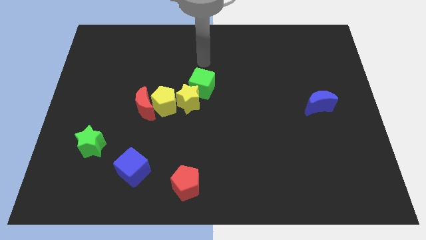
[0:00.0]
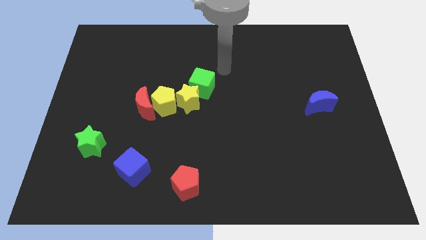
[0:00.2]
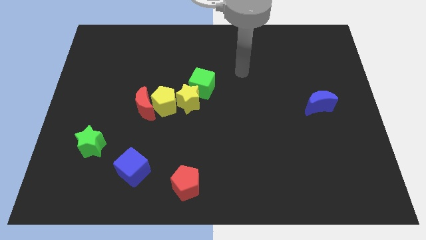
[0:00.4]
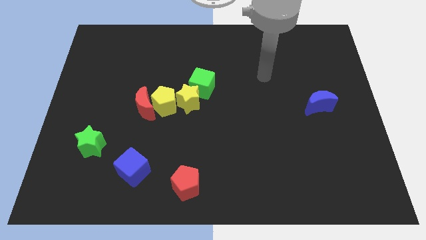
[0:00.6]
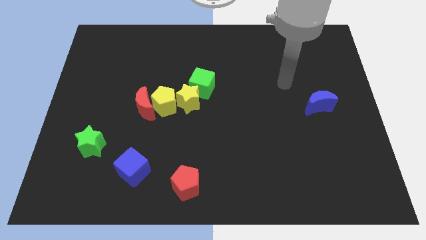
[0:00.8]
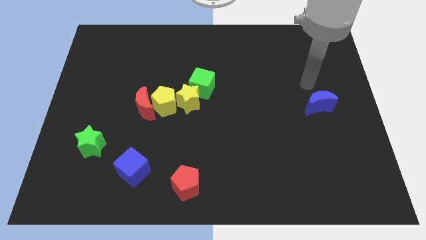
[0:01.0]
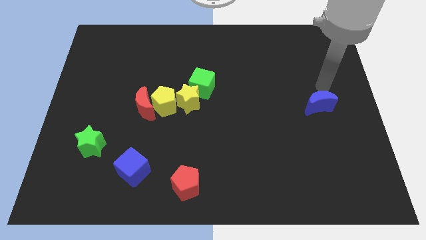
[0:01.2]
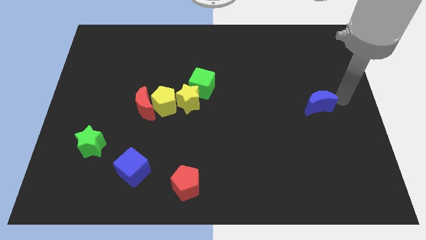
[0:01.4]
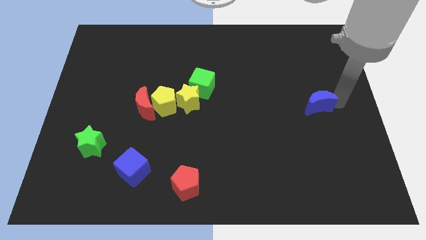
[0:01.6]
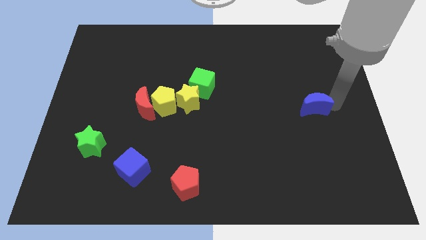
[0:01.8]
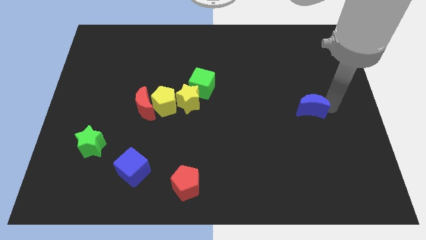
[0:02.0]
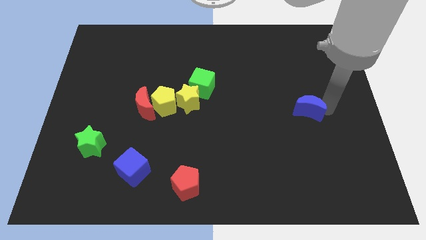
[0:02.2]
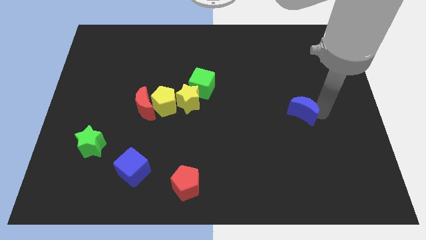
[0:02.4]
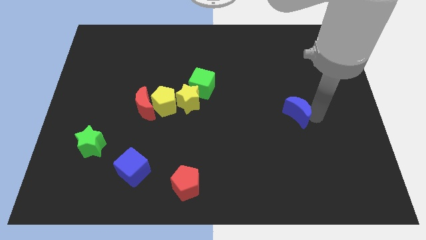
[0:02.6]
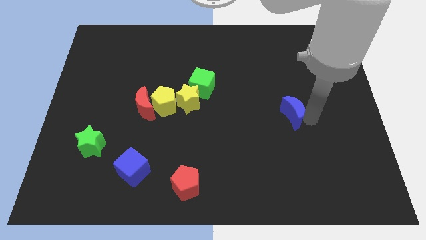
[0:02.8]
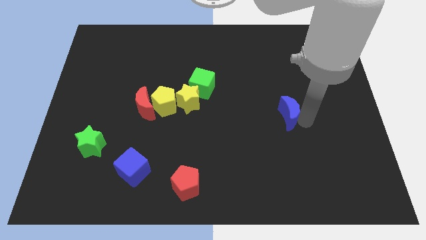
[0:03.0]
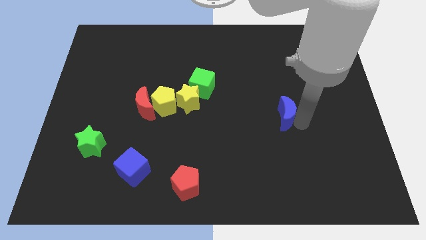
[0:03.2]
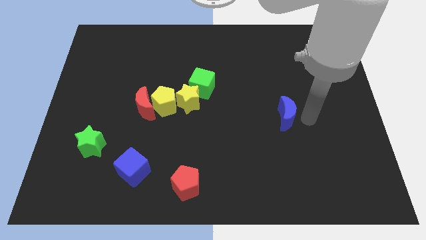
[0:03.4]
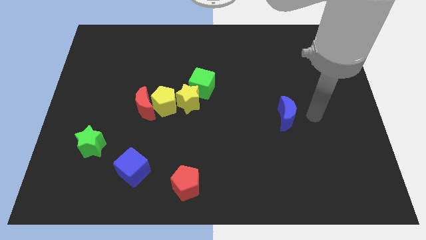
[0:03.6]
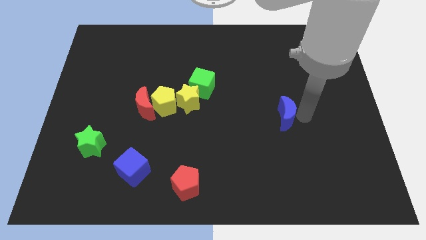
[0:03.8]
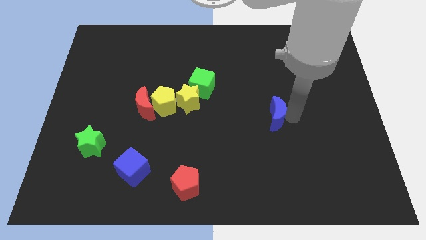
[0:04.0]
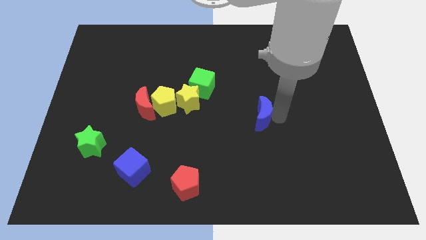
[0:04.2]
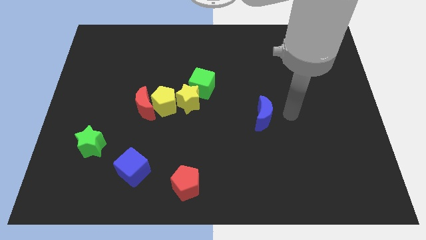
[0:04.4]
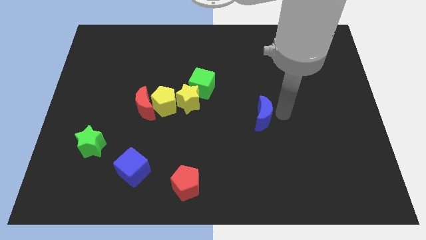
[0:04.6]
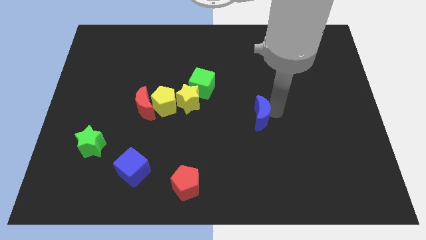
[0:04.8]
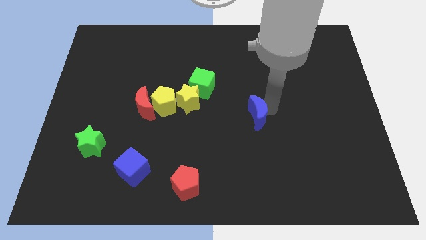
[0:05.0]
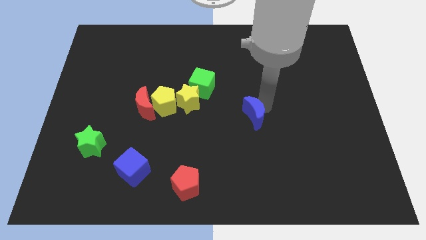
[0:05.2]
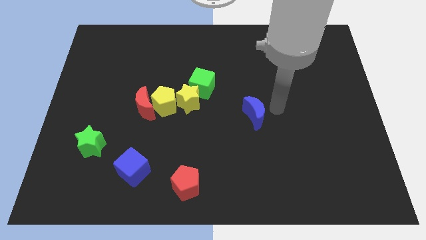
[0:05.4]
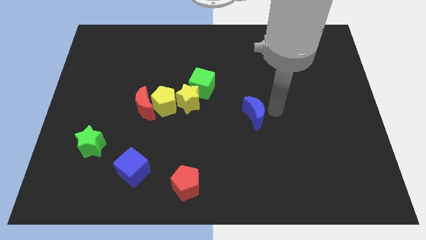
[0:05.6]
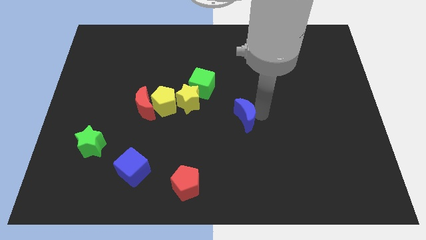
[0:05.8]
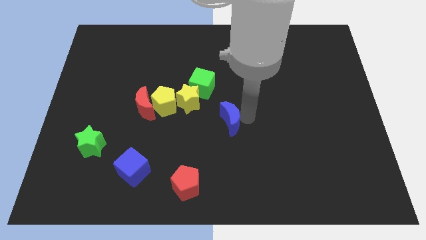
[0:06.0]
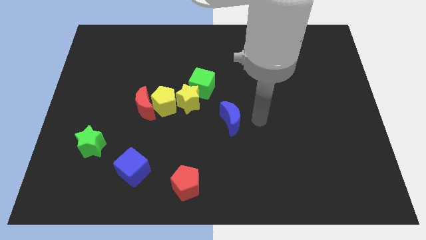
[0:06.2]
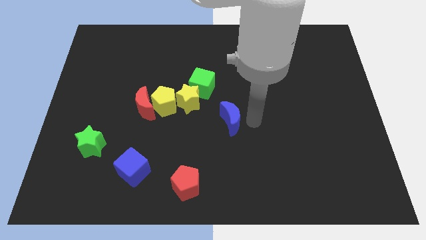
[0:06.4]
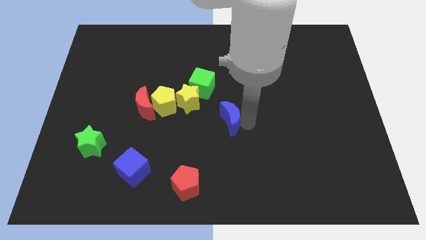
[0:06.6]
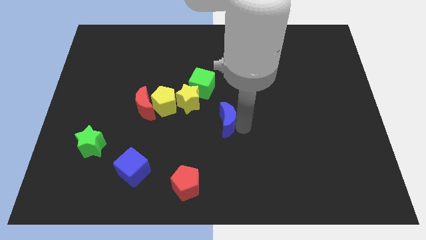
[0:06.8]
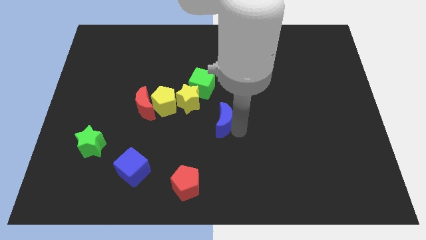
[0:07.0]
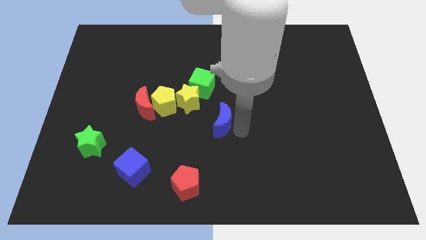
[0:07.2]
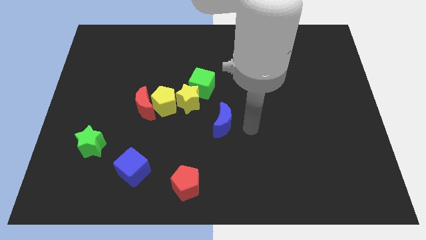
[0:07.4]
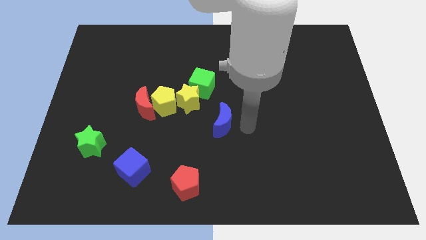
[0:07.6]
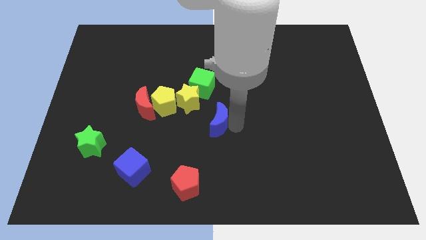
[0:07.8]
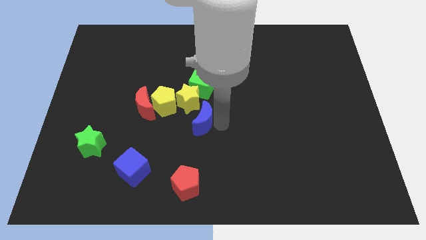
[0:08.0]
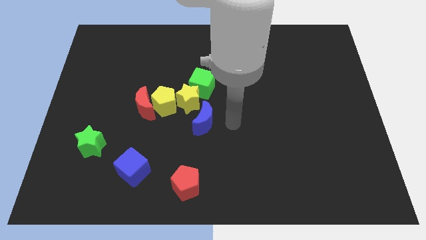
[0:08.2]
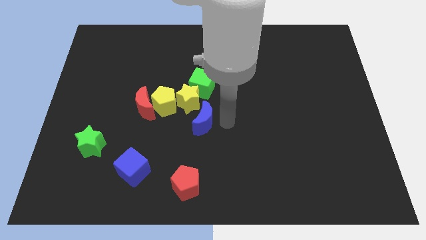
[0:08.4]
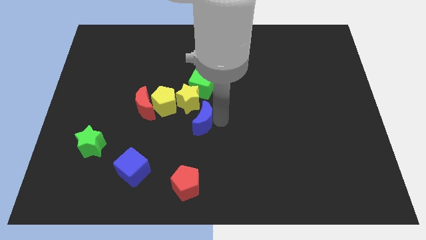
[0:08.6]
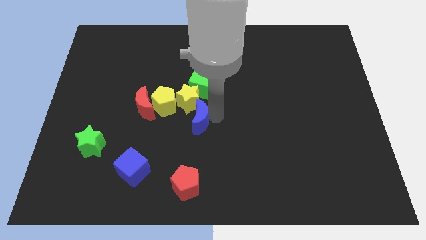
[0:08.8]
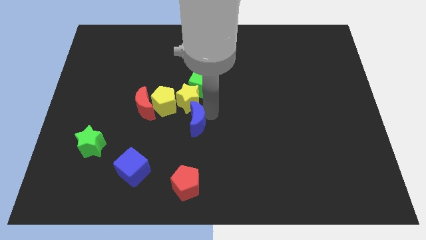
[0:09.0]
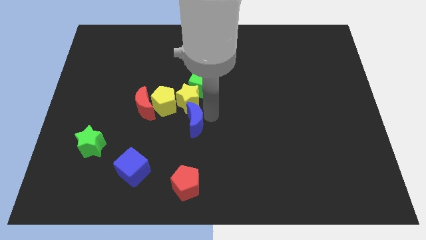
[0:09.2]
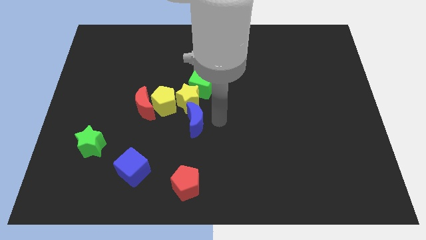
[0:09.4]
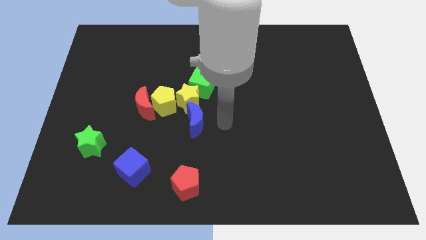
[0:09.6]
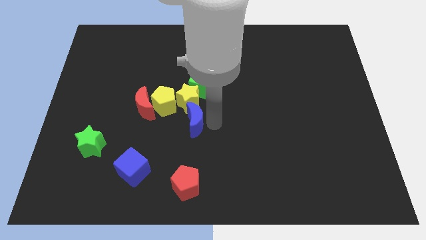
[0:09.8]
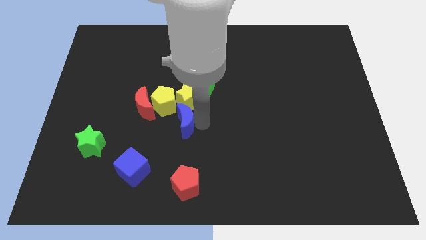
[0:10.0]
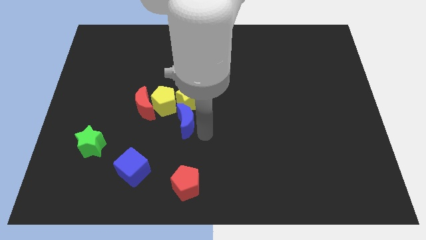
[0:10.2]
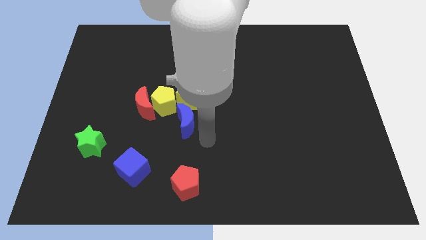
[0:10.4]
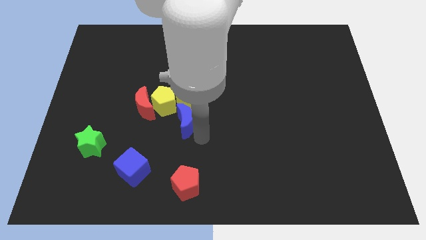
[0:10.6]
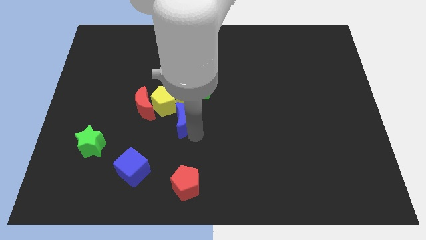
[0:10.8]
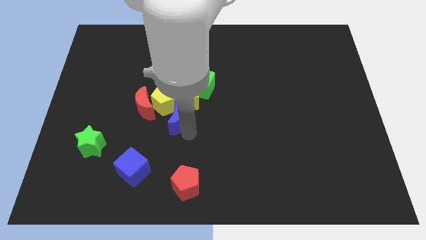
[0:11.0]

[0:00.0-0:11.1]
slide the blue moon to the yellow pentagon
